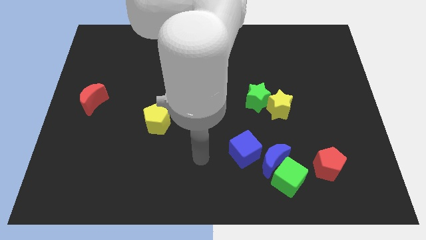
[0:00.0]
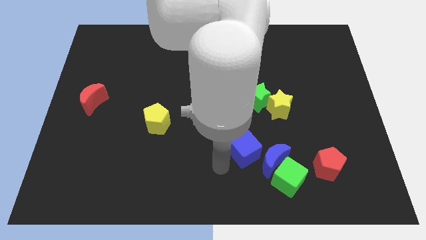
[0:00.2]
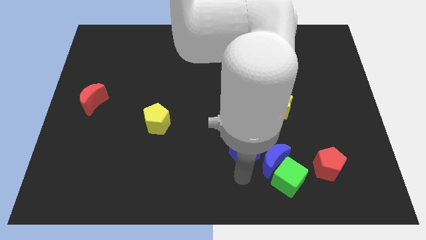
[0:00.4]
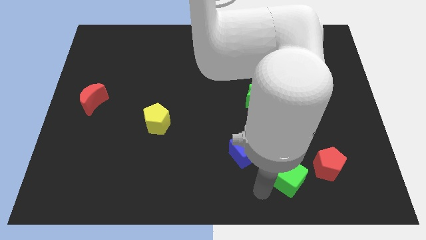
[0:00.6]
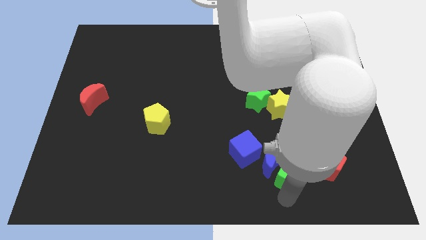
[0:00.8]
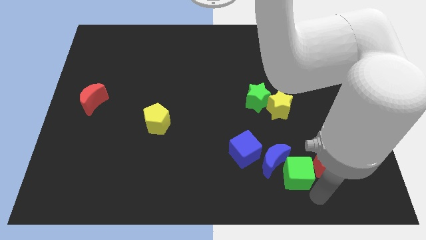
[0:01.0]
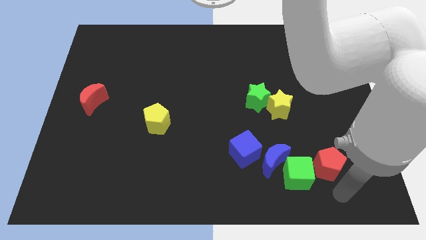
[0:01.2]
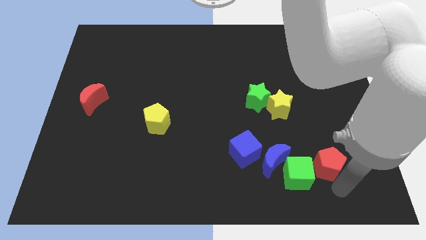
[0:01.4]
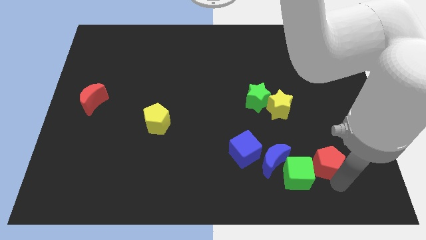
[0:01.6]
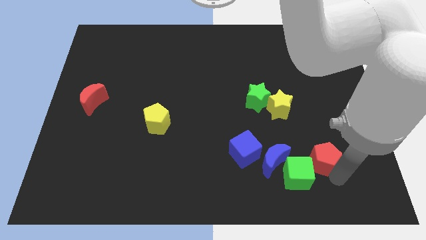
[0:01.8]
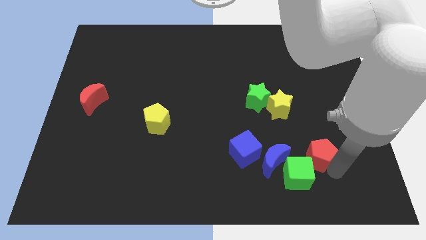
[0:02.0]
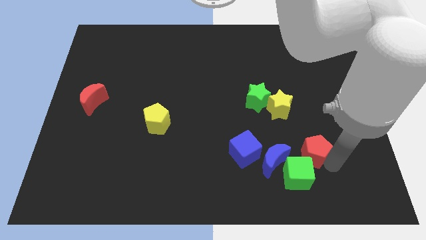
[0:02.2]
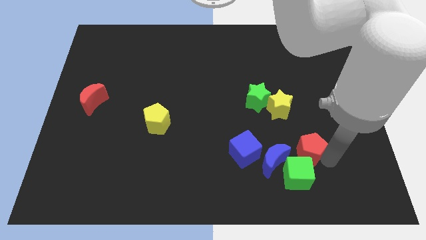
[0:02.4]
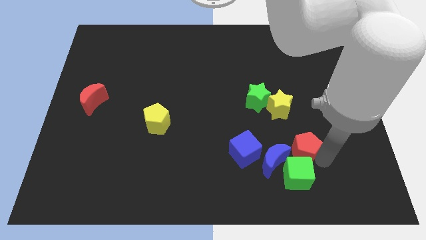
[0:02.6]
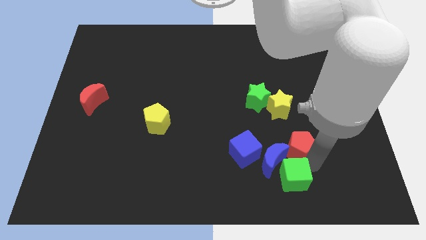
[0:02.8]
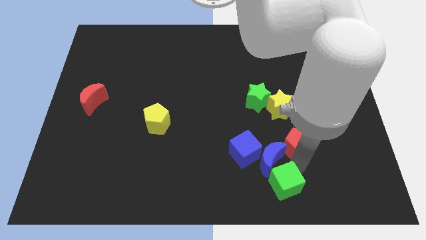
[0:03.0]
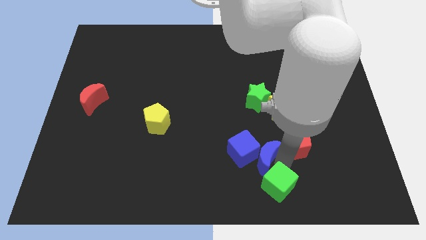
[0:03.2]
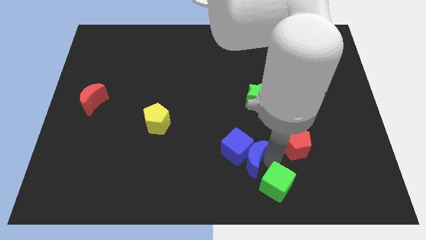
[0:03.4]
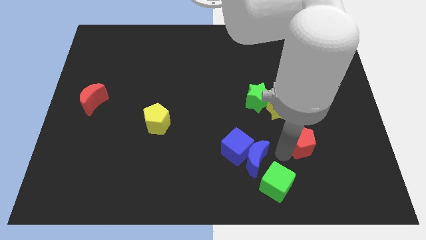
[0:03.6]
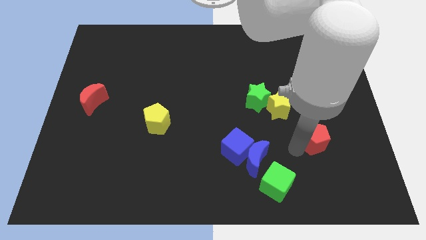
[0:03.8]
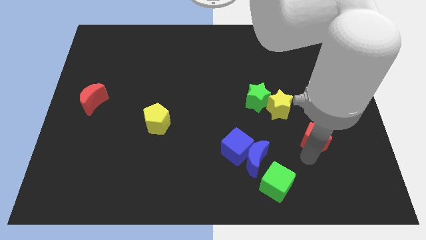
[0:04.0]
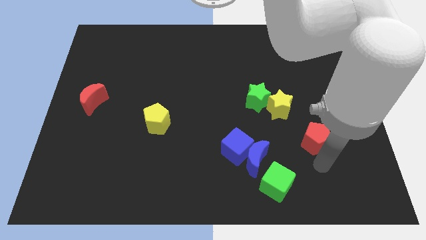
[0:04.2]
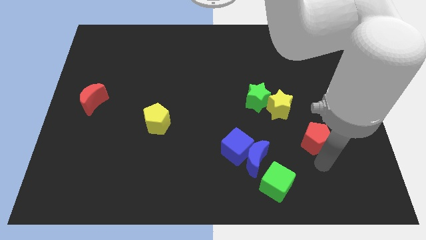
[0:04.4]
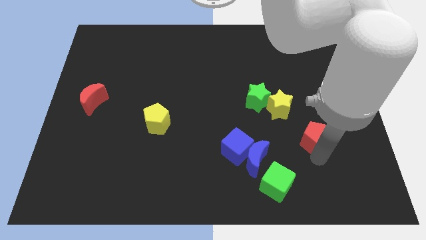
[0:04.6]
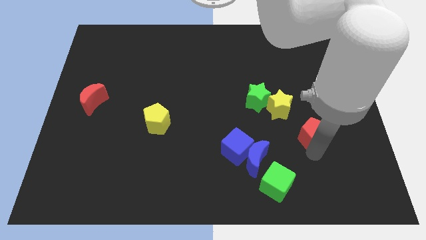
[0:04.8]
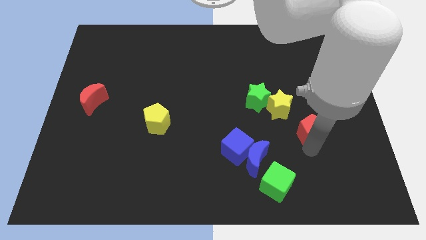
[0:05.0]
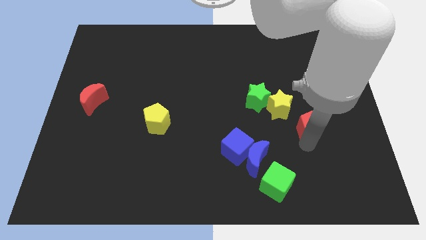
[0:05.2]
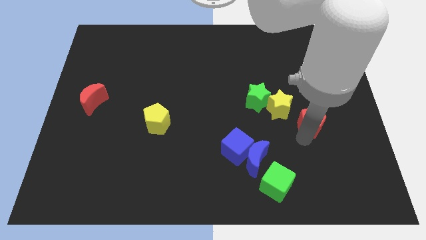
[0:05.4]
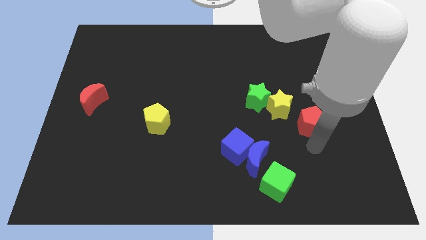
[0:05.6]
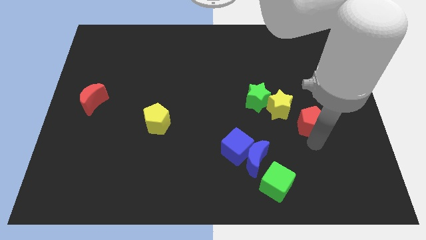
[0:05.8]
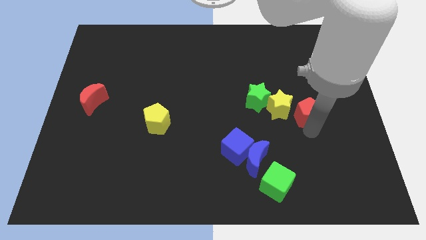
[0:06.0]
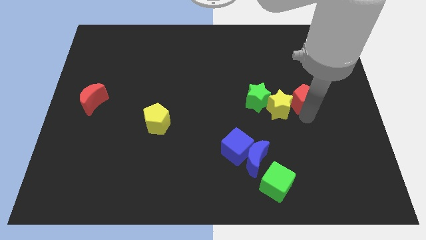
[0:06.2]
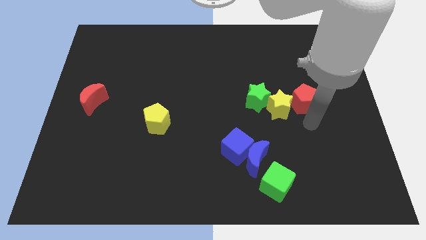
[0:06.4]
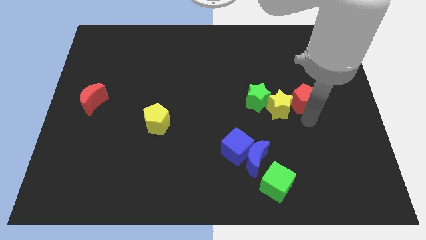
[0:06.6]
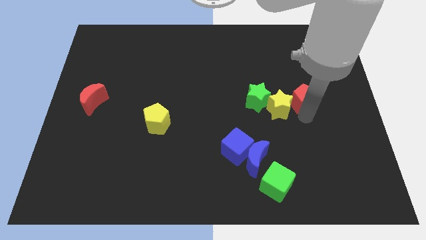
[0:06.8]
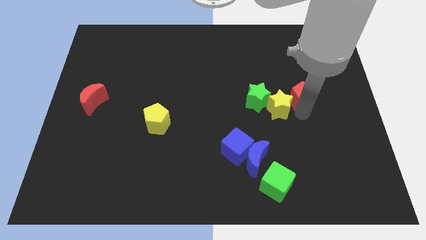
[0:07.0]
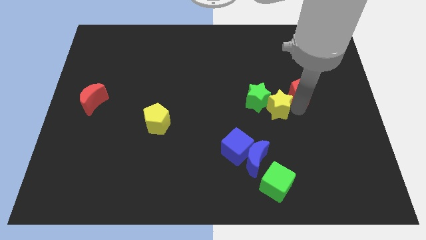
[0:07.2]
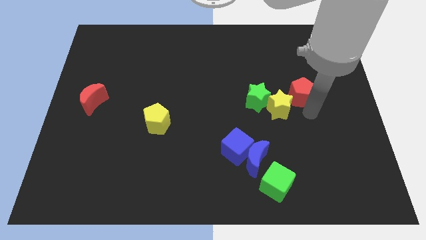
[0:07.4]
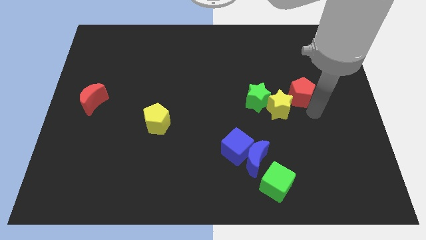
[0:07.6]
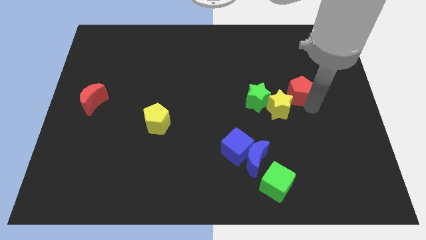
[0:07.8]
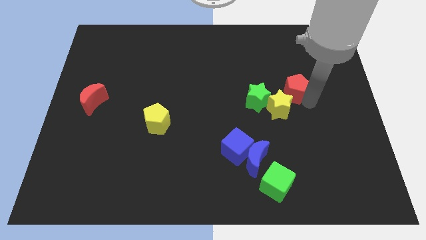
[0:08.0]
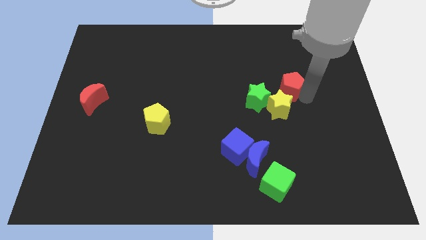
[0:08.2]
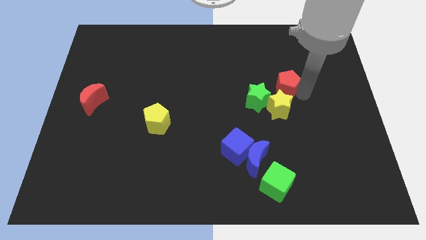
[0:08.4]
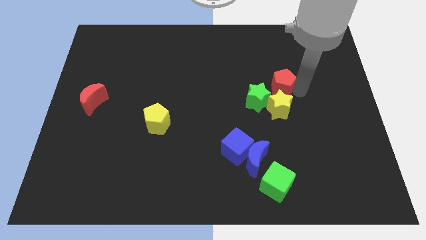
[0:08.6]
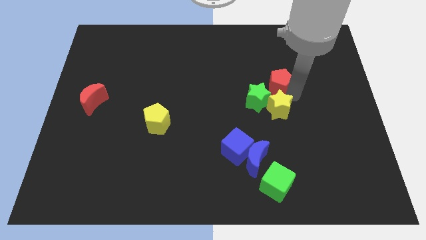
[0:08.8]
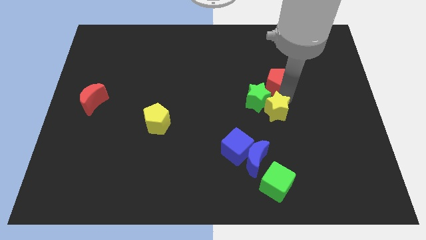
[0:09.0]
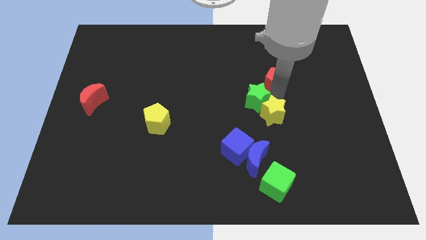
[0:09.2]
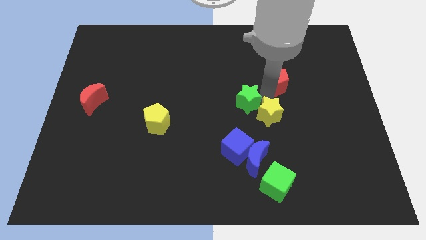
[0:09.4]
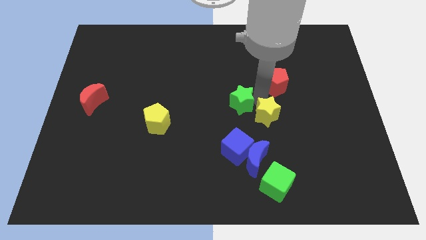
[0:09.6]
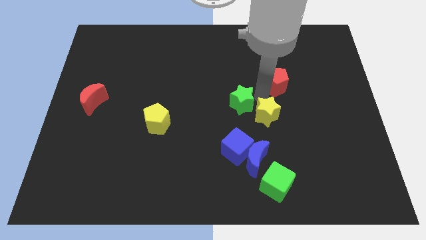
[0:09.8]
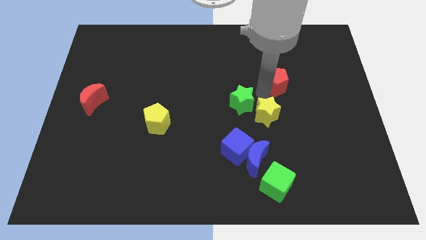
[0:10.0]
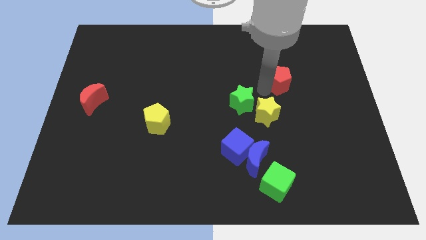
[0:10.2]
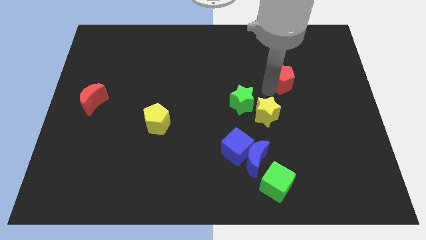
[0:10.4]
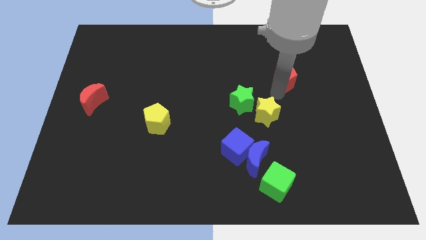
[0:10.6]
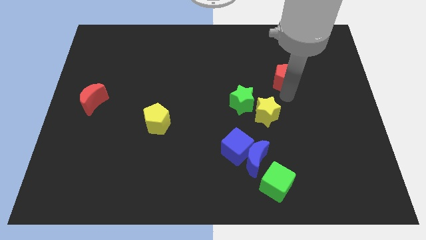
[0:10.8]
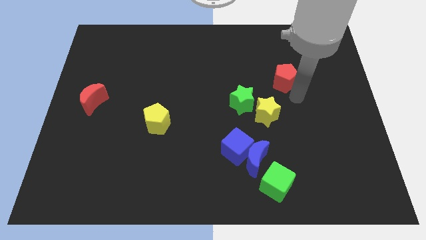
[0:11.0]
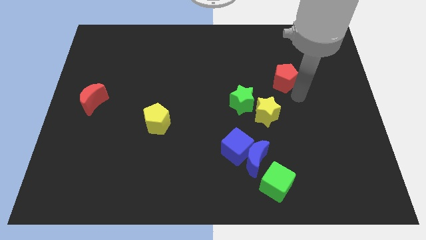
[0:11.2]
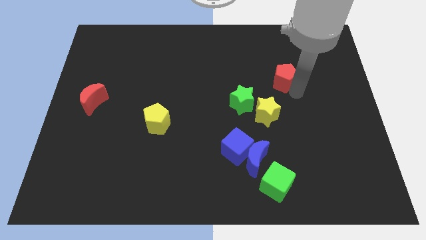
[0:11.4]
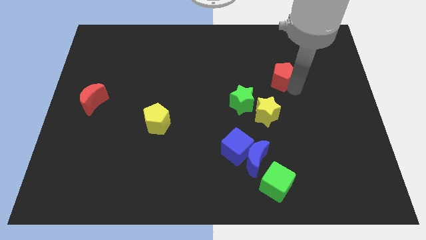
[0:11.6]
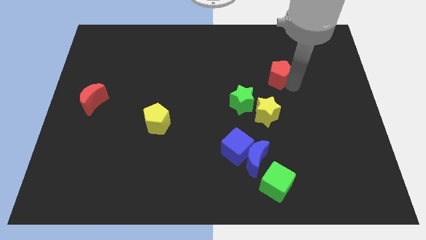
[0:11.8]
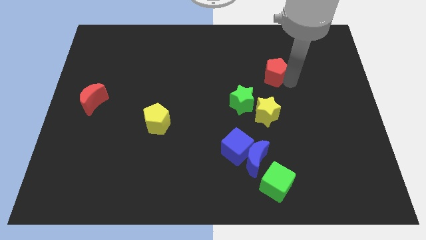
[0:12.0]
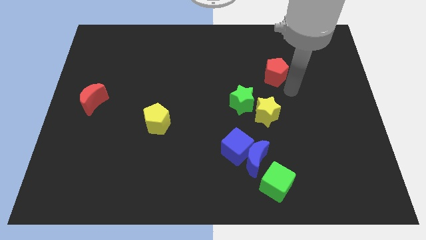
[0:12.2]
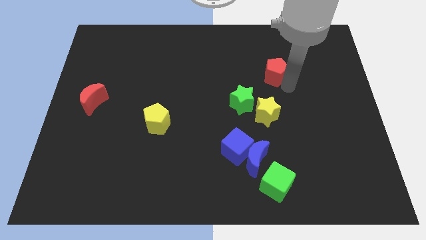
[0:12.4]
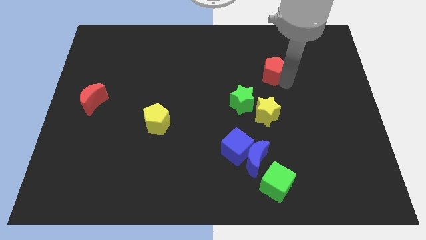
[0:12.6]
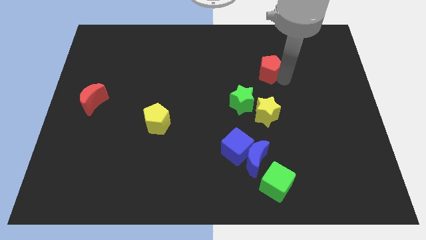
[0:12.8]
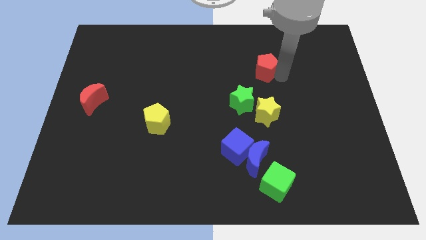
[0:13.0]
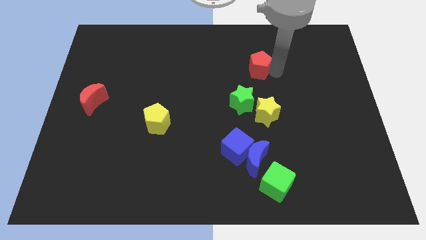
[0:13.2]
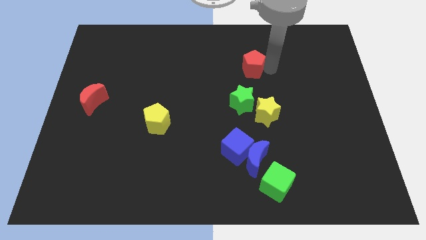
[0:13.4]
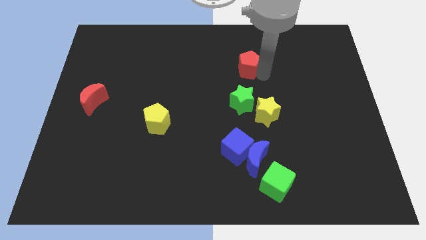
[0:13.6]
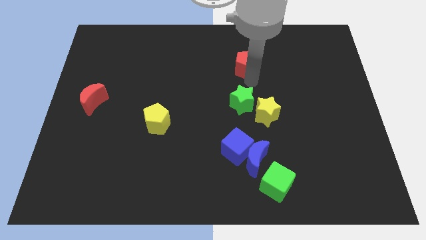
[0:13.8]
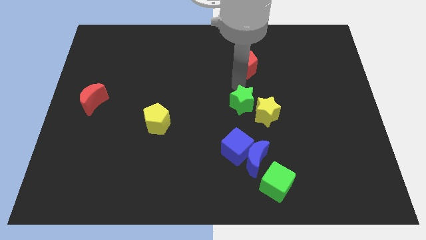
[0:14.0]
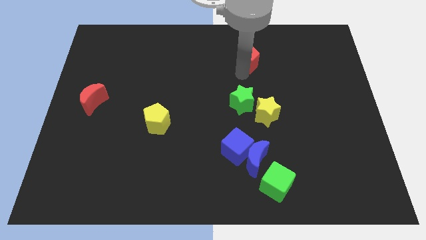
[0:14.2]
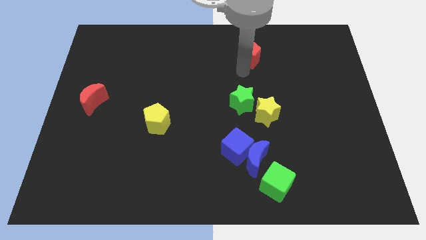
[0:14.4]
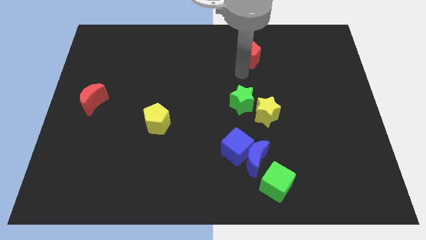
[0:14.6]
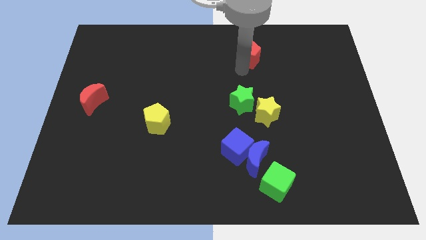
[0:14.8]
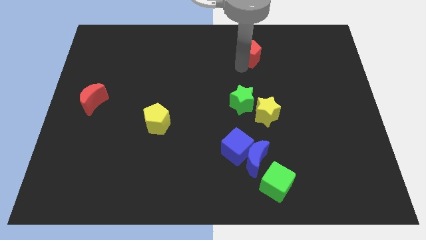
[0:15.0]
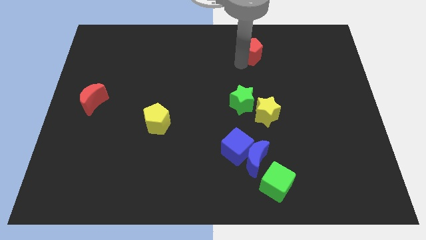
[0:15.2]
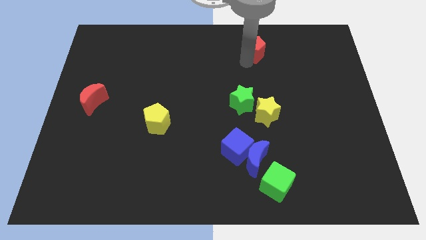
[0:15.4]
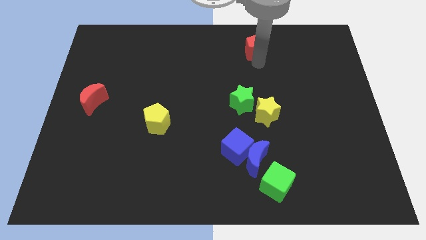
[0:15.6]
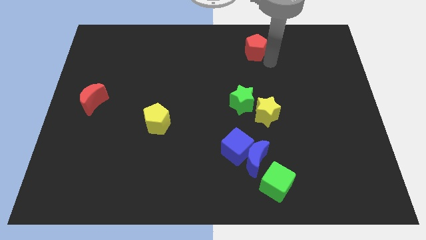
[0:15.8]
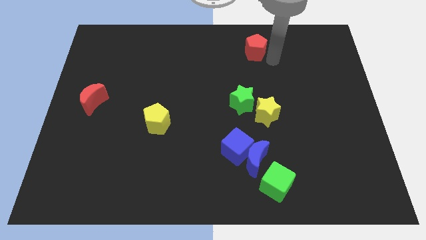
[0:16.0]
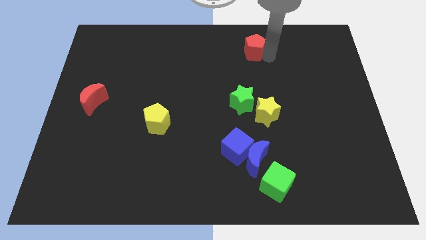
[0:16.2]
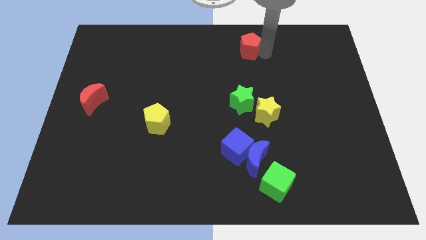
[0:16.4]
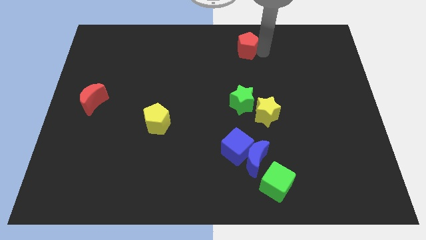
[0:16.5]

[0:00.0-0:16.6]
move the red pentagon to the top side
